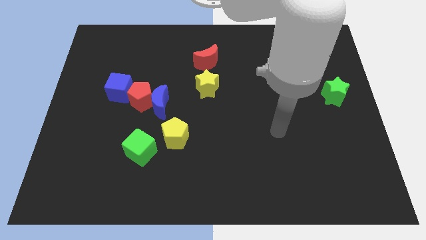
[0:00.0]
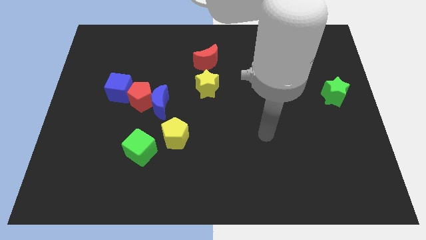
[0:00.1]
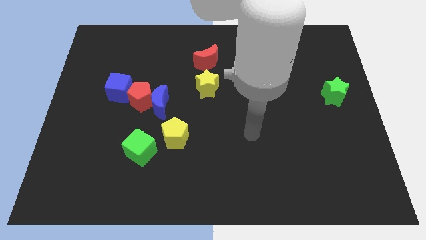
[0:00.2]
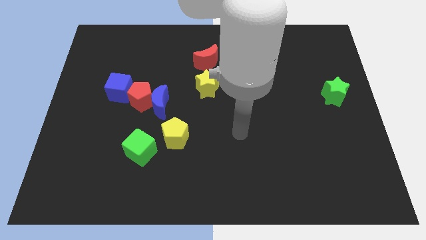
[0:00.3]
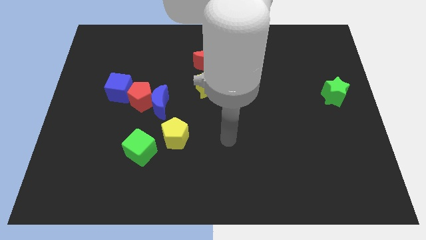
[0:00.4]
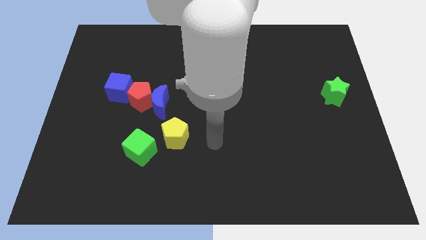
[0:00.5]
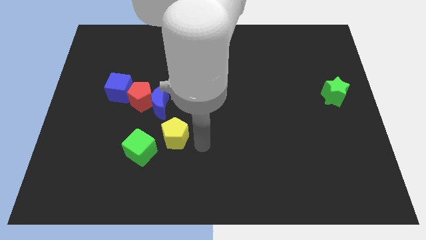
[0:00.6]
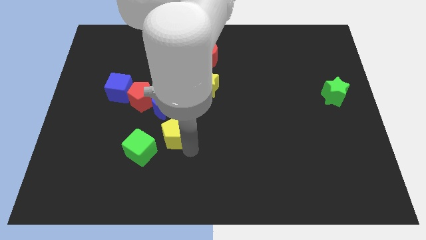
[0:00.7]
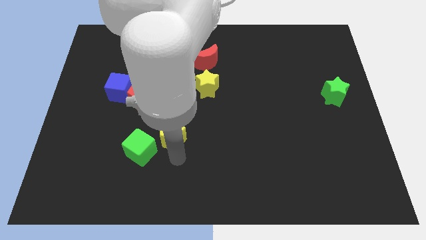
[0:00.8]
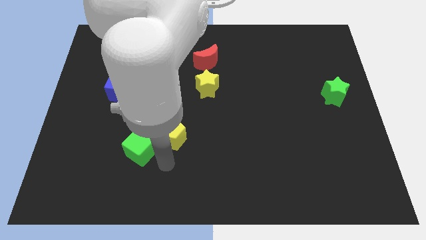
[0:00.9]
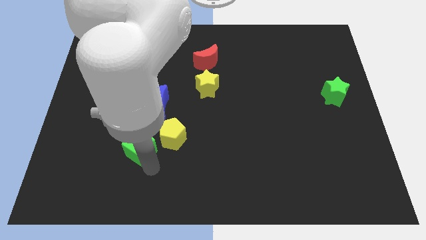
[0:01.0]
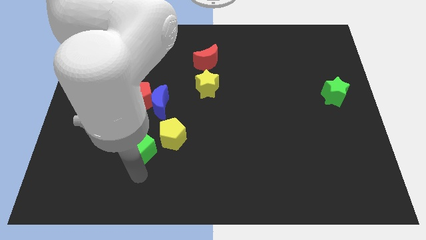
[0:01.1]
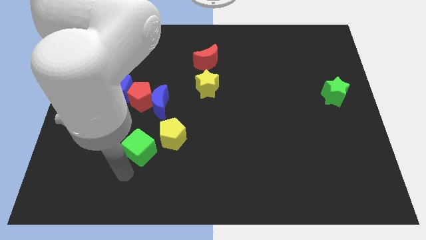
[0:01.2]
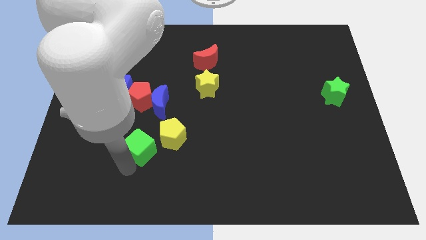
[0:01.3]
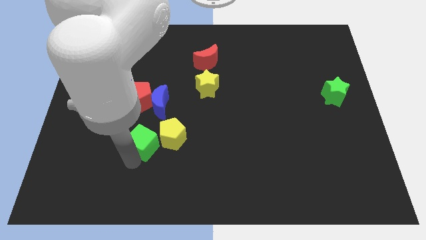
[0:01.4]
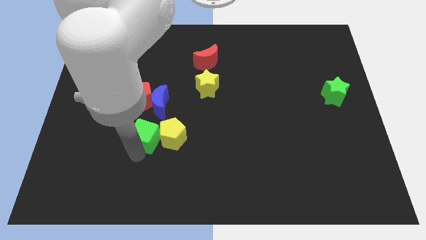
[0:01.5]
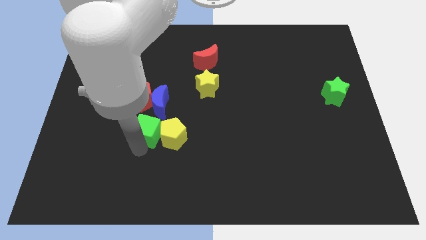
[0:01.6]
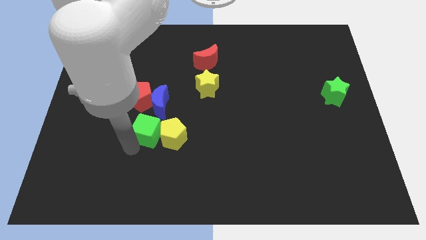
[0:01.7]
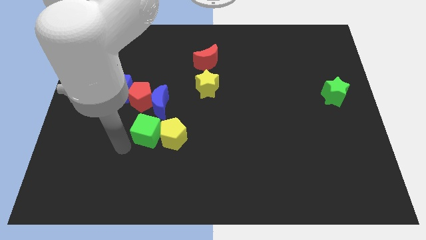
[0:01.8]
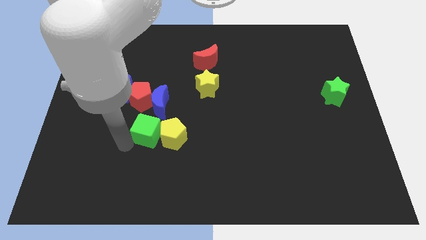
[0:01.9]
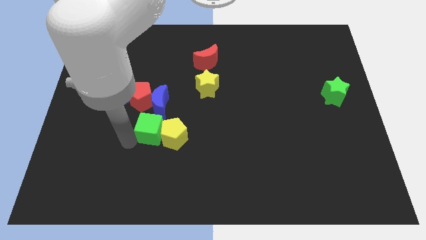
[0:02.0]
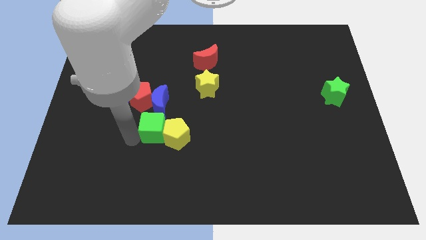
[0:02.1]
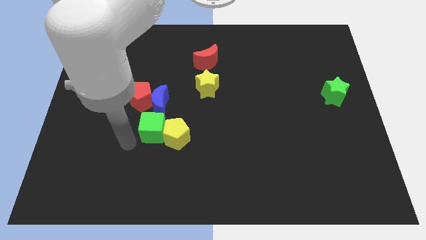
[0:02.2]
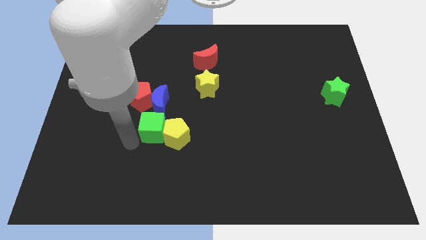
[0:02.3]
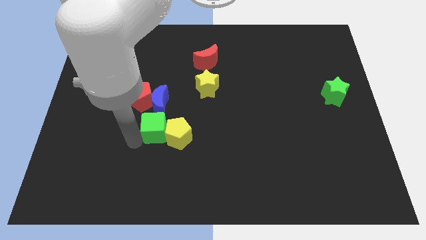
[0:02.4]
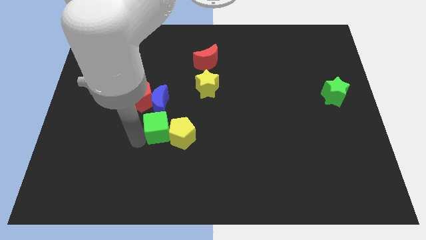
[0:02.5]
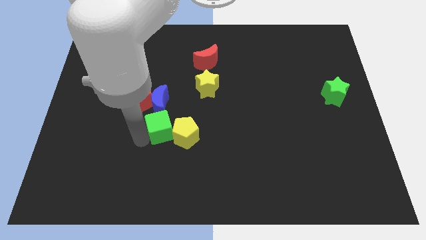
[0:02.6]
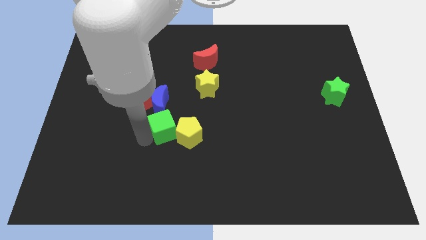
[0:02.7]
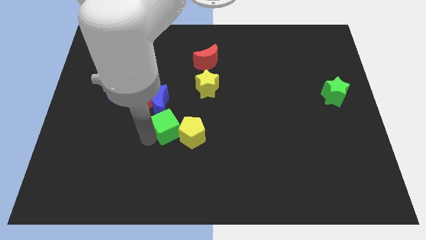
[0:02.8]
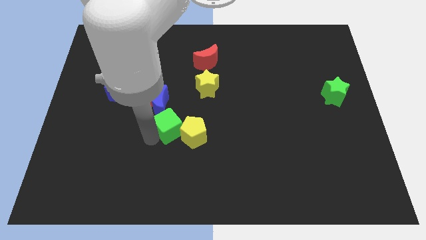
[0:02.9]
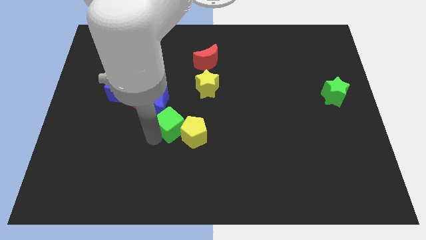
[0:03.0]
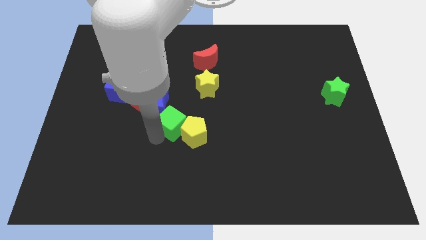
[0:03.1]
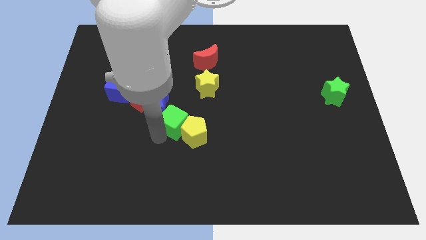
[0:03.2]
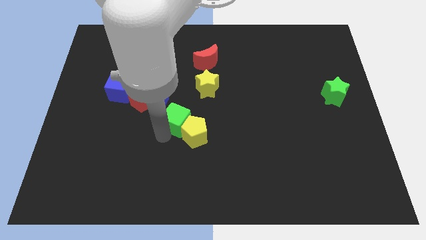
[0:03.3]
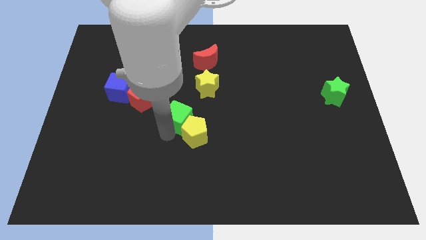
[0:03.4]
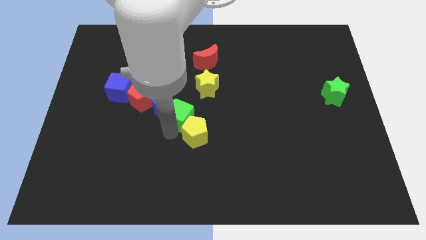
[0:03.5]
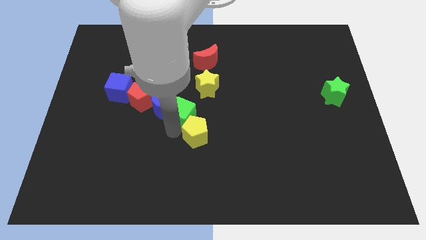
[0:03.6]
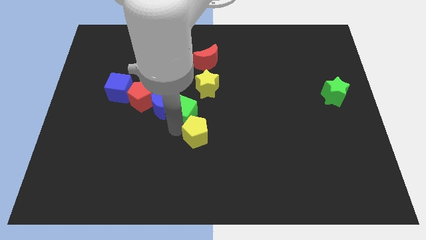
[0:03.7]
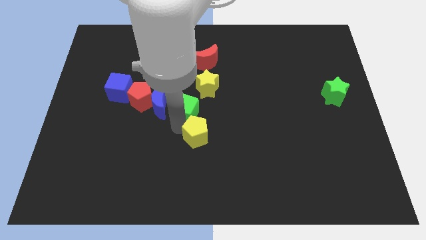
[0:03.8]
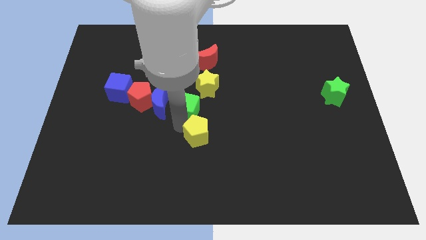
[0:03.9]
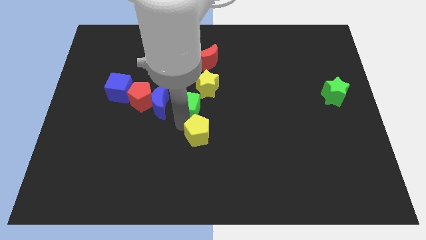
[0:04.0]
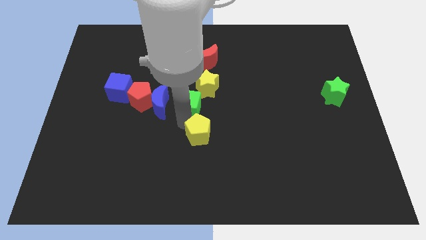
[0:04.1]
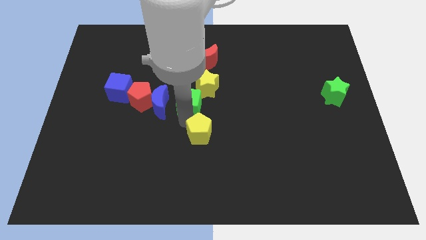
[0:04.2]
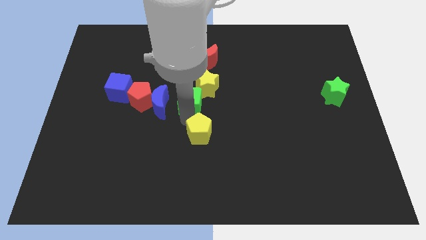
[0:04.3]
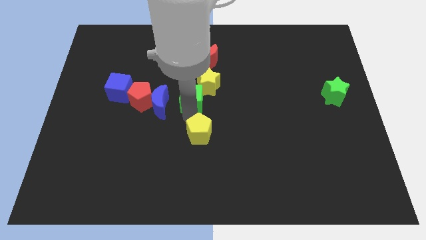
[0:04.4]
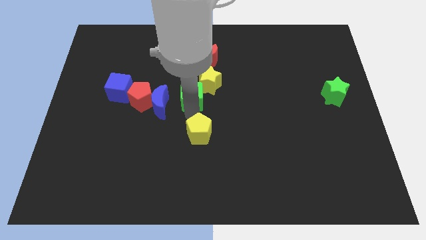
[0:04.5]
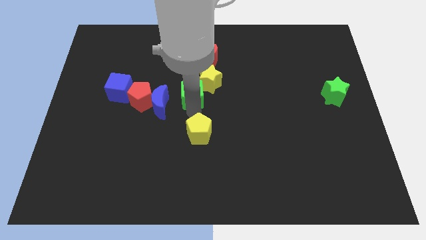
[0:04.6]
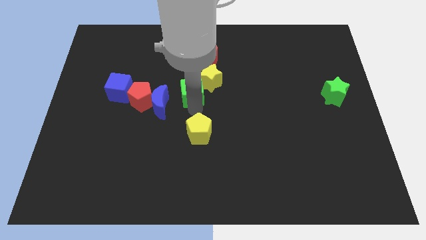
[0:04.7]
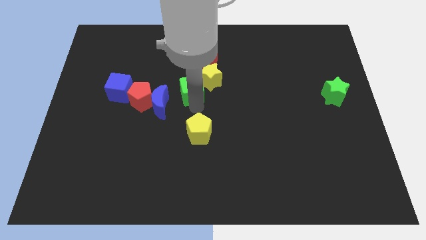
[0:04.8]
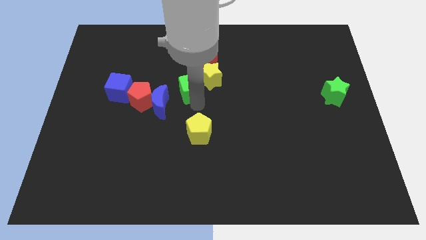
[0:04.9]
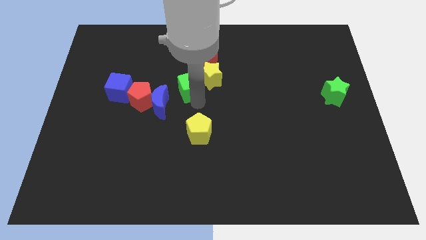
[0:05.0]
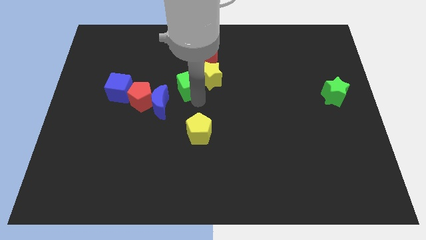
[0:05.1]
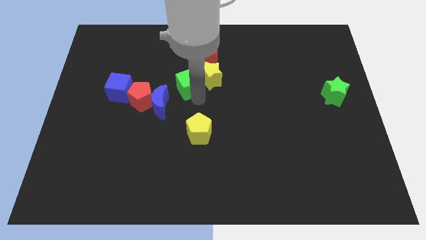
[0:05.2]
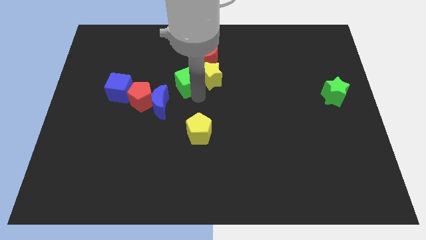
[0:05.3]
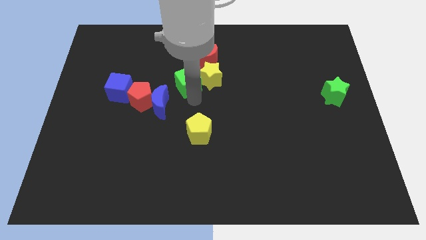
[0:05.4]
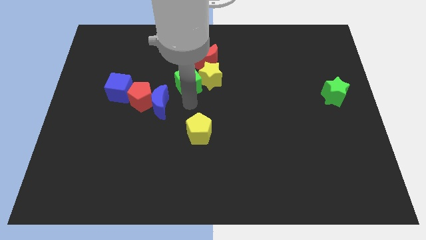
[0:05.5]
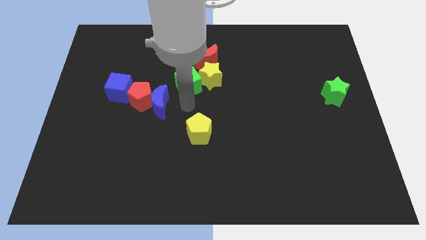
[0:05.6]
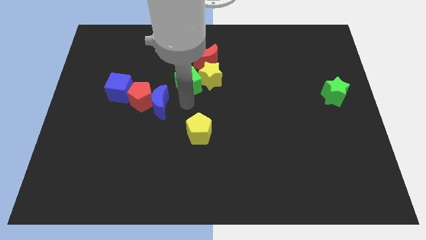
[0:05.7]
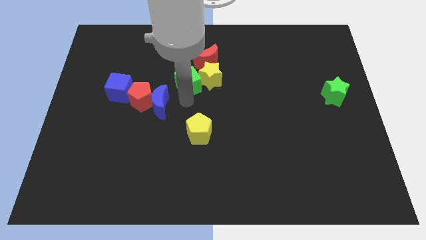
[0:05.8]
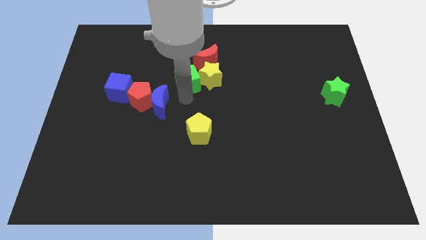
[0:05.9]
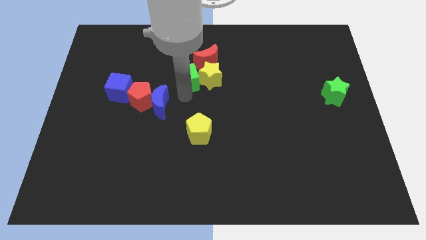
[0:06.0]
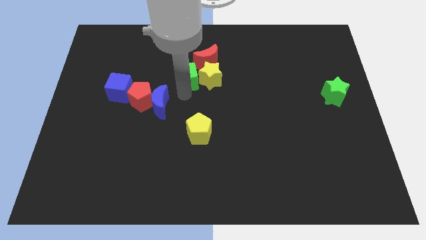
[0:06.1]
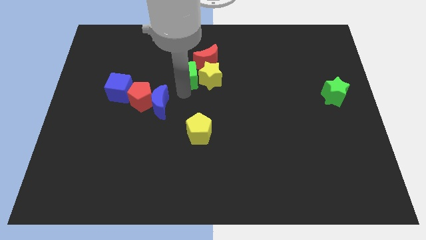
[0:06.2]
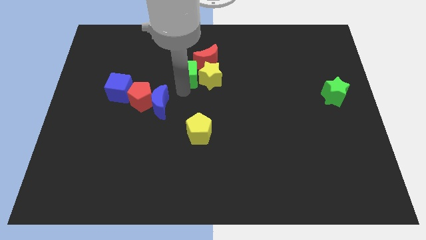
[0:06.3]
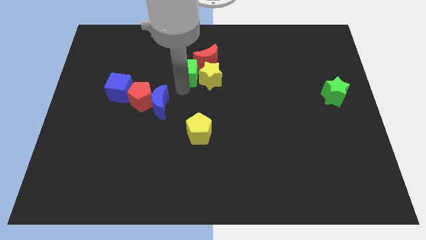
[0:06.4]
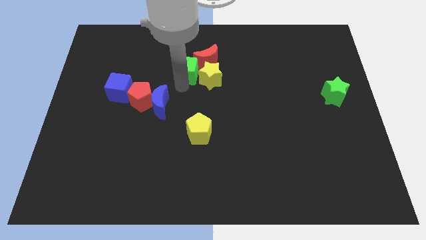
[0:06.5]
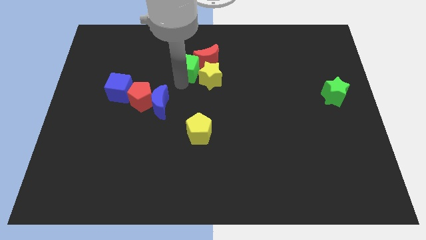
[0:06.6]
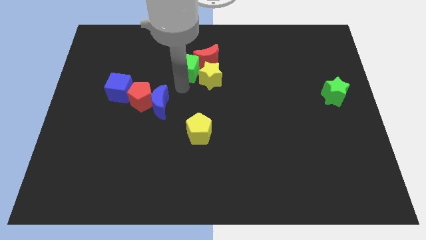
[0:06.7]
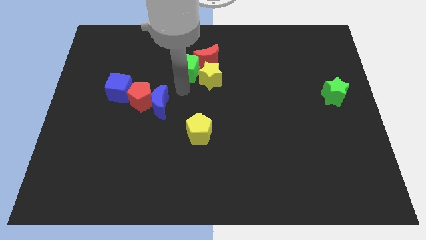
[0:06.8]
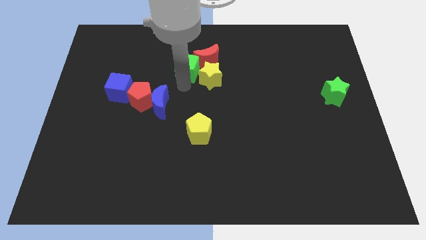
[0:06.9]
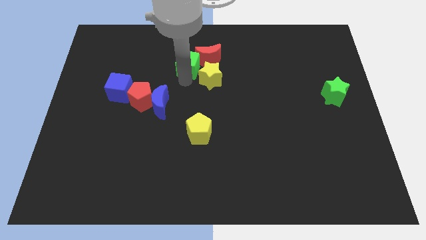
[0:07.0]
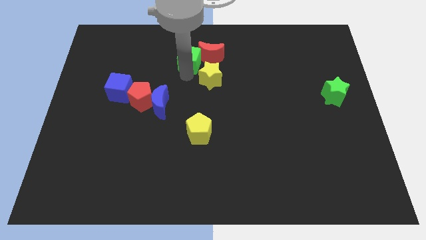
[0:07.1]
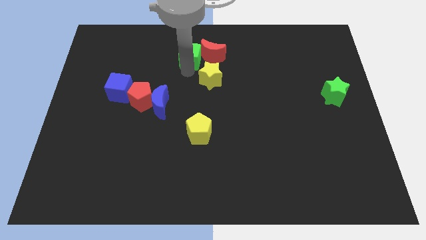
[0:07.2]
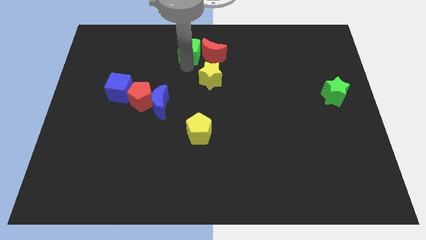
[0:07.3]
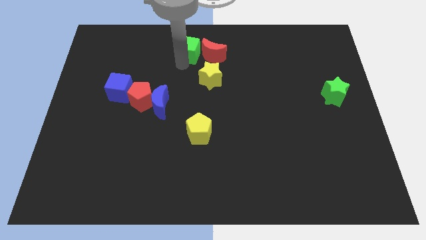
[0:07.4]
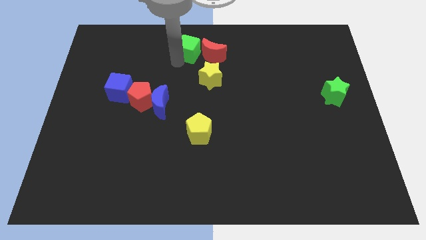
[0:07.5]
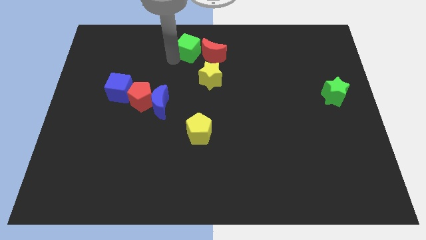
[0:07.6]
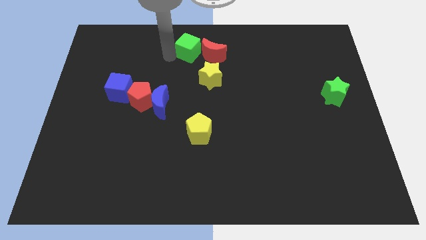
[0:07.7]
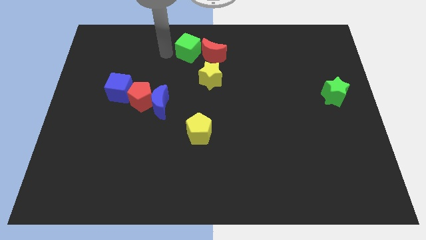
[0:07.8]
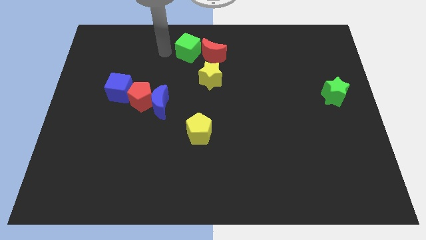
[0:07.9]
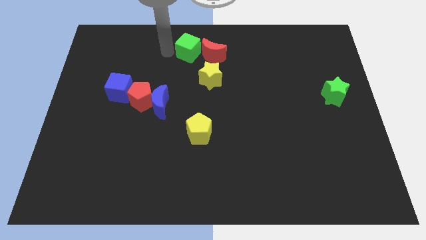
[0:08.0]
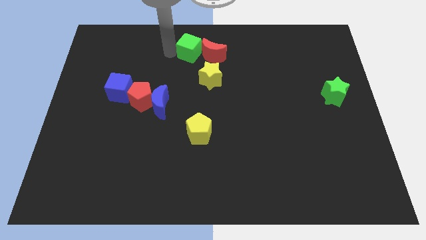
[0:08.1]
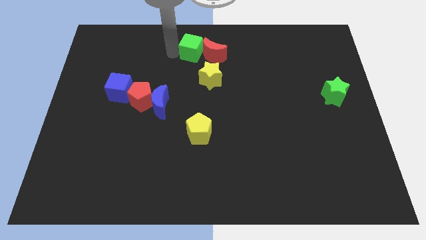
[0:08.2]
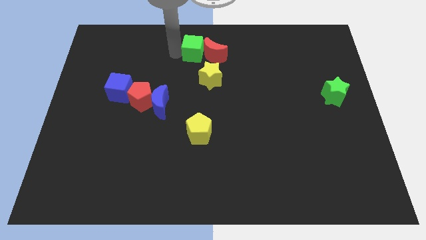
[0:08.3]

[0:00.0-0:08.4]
push the green cube above the yellow star
